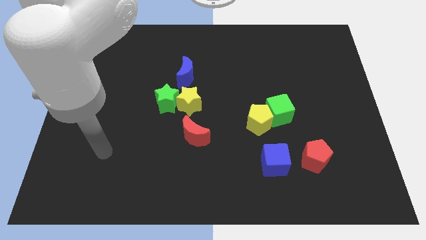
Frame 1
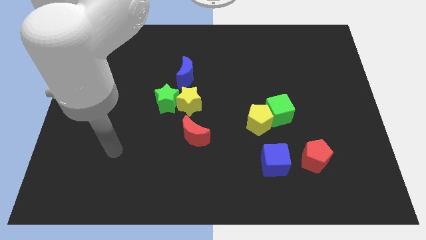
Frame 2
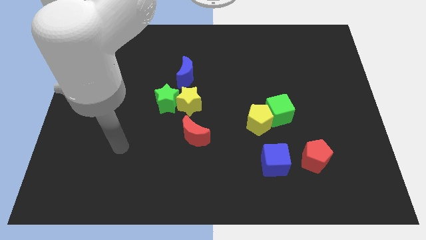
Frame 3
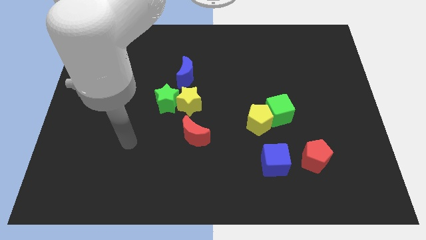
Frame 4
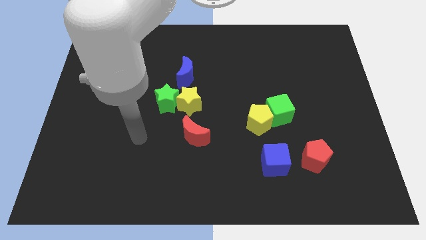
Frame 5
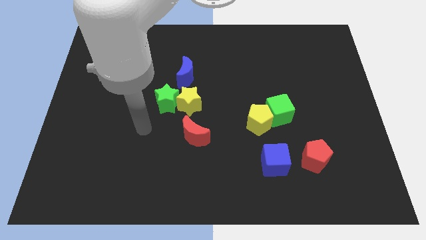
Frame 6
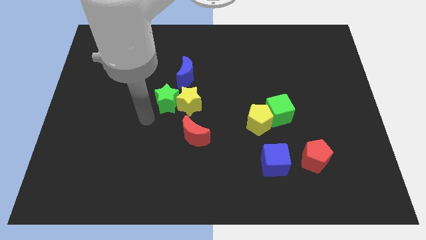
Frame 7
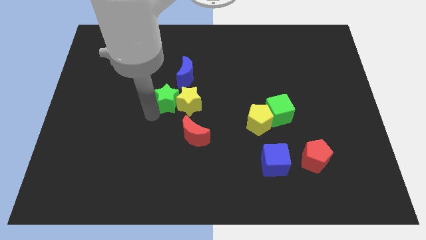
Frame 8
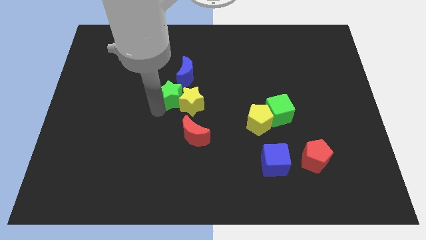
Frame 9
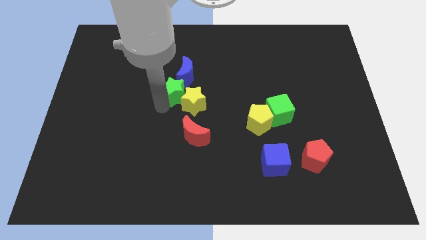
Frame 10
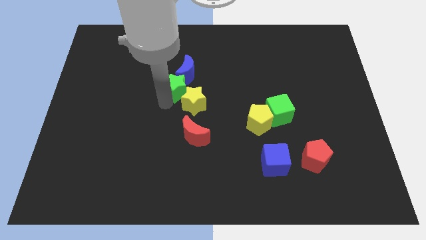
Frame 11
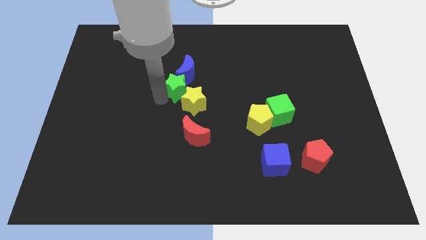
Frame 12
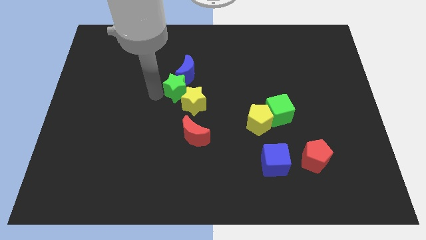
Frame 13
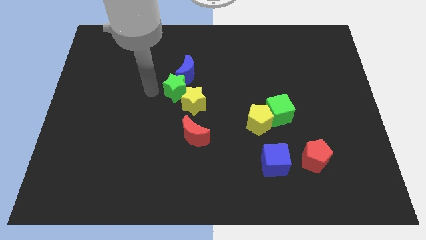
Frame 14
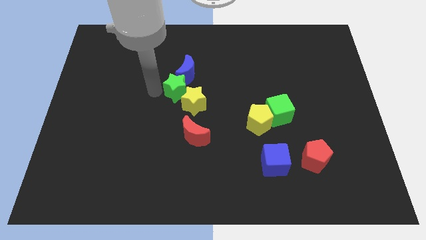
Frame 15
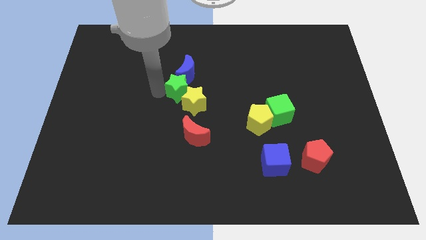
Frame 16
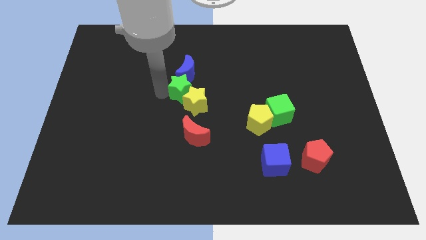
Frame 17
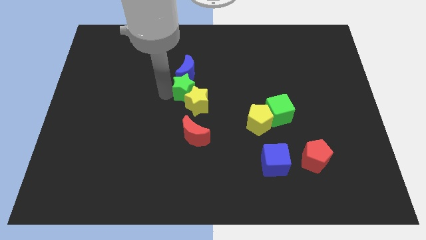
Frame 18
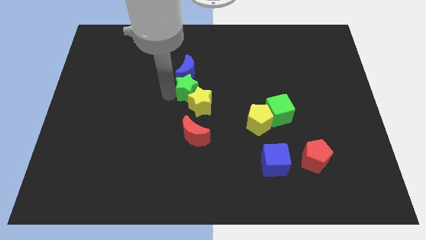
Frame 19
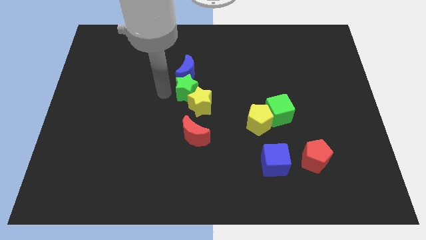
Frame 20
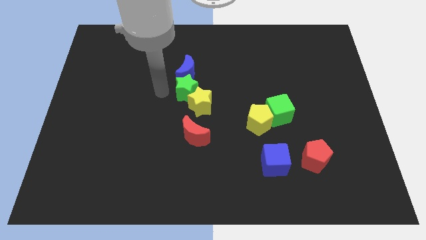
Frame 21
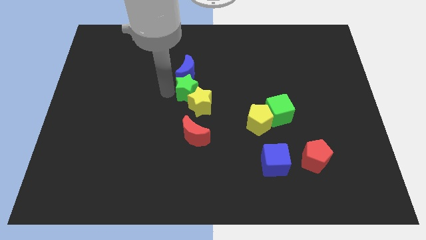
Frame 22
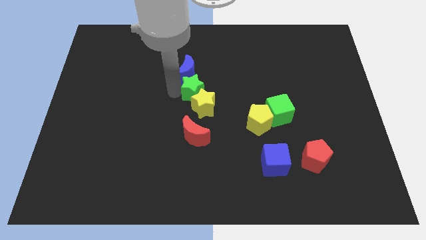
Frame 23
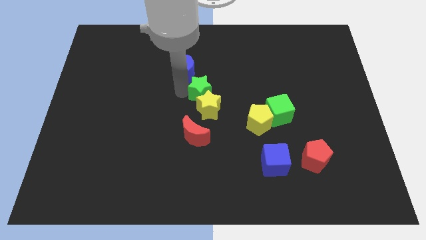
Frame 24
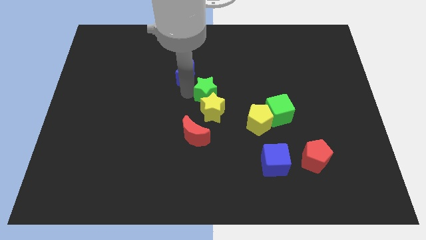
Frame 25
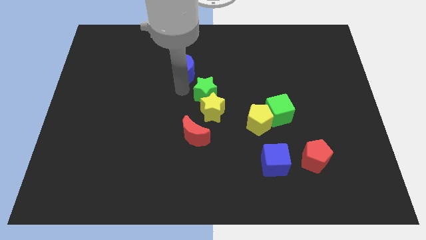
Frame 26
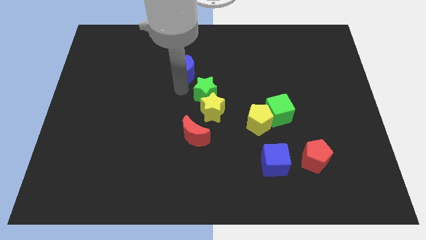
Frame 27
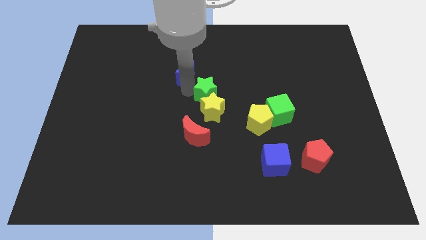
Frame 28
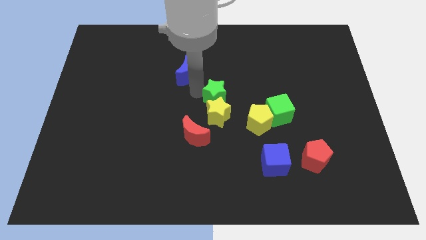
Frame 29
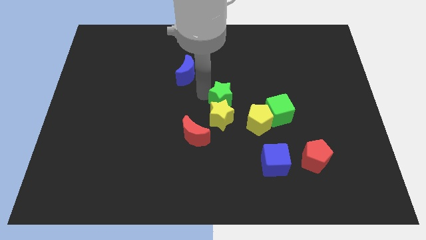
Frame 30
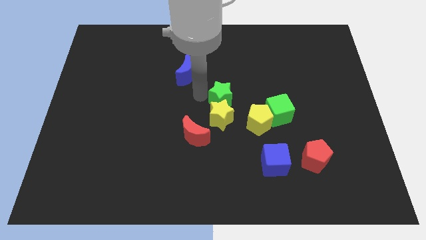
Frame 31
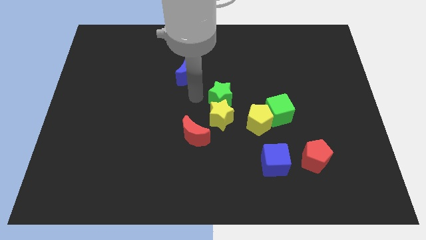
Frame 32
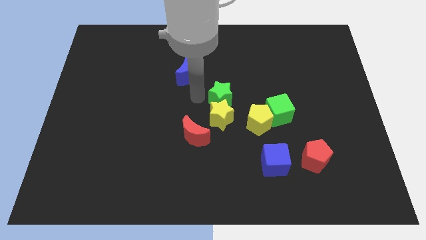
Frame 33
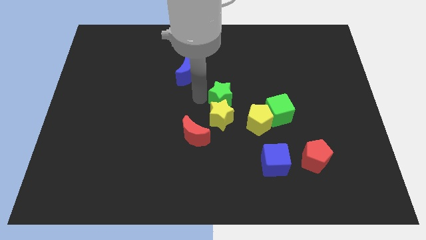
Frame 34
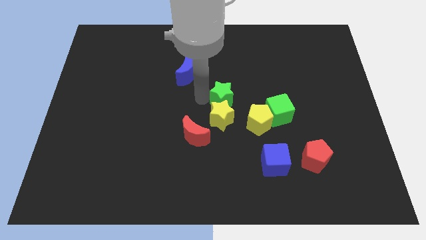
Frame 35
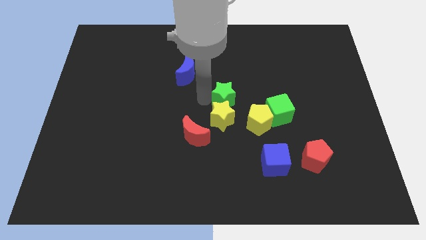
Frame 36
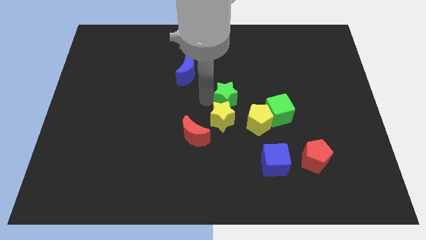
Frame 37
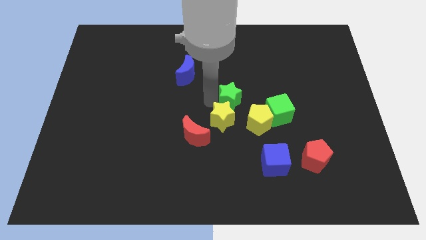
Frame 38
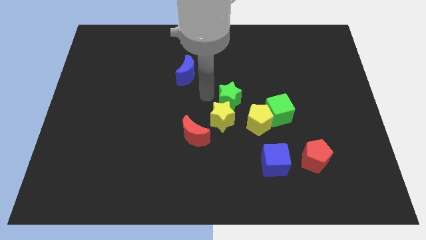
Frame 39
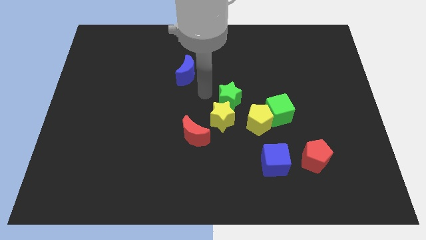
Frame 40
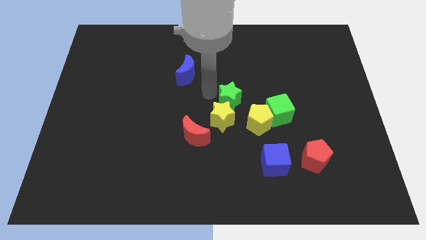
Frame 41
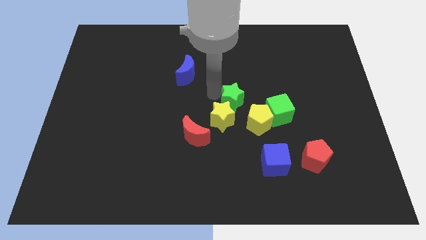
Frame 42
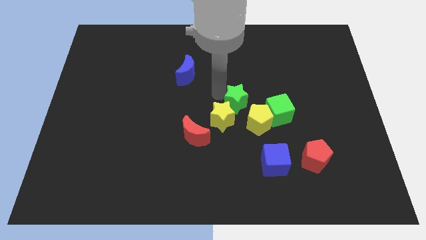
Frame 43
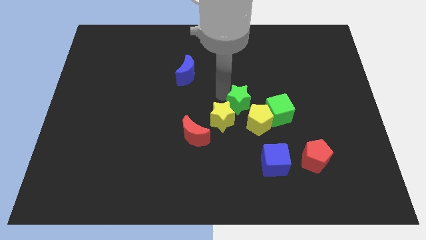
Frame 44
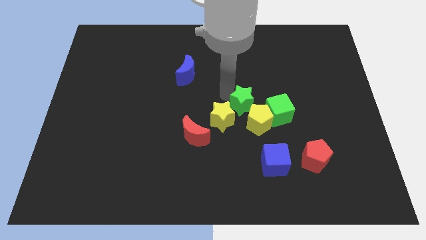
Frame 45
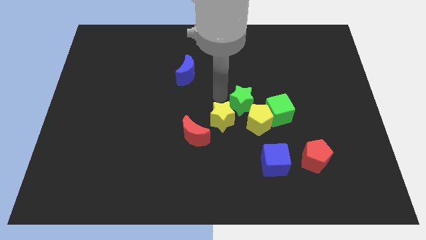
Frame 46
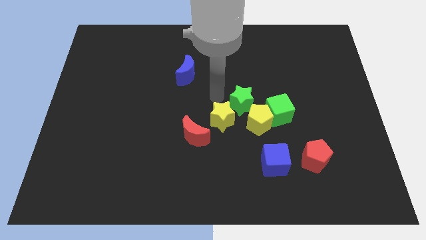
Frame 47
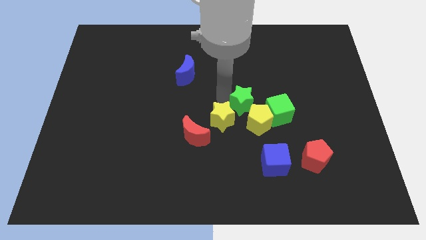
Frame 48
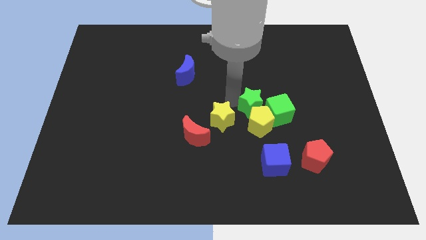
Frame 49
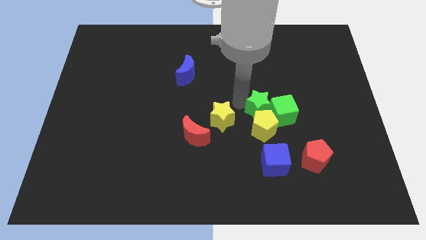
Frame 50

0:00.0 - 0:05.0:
slide the green star next to the green cube

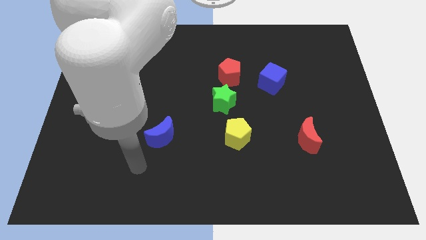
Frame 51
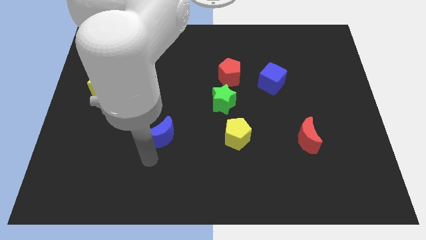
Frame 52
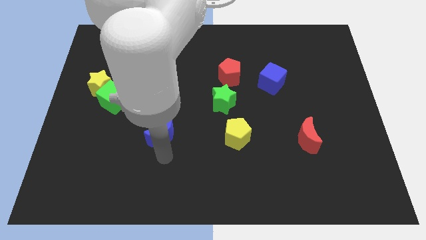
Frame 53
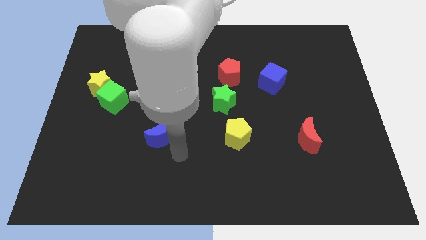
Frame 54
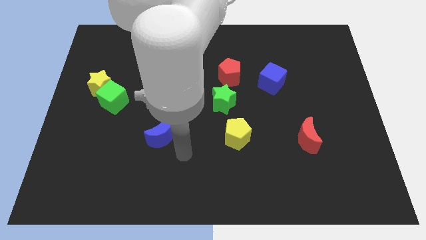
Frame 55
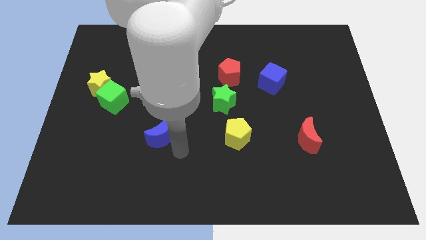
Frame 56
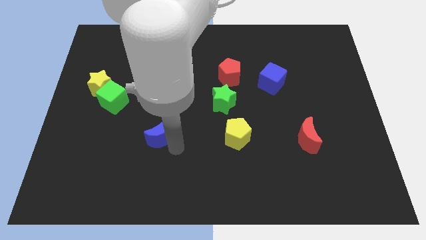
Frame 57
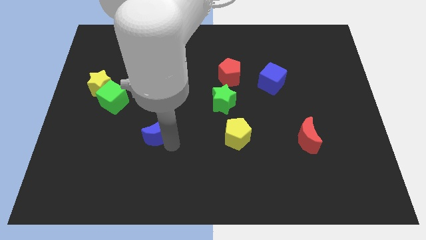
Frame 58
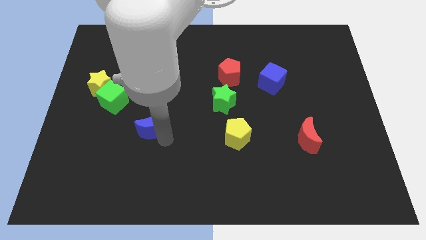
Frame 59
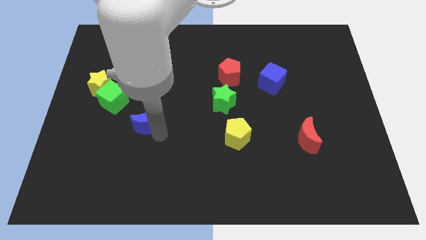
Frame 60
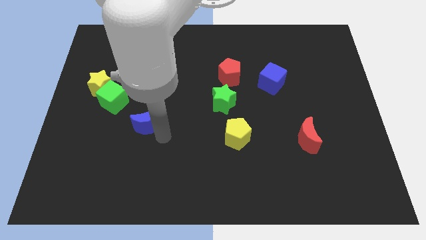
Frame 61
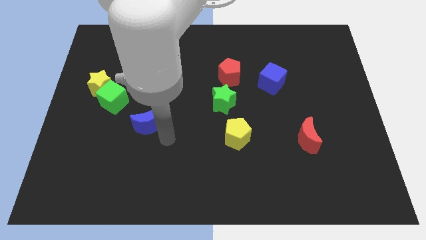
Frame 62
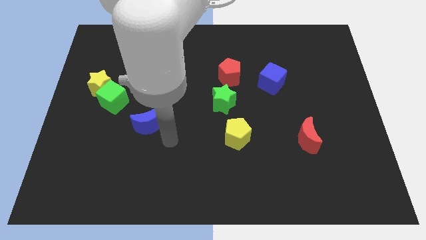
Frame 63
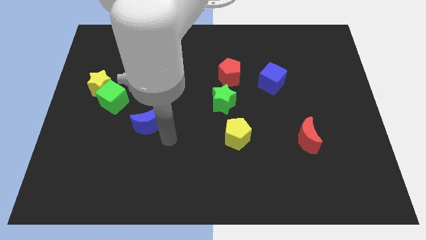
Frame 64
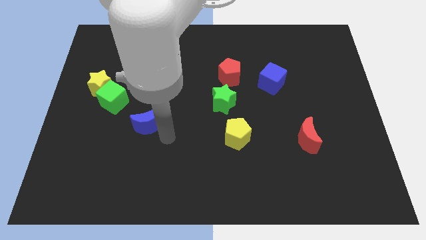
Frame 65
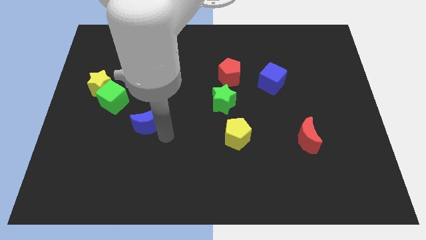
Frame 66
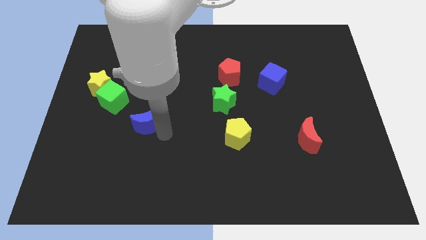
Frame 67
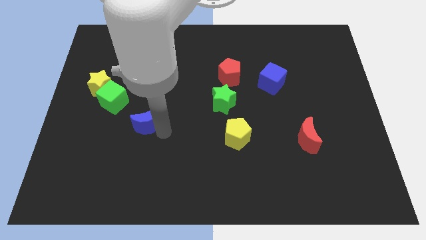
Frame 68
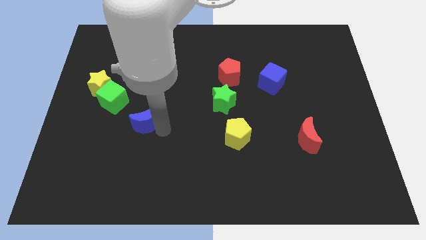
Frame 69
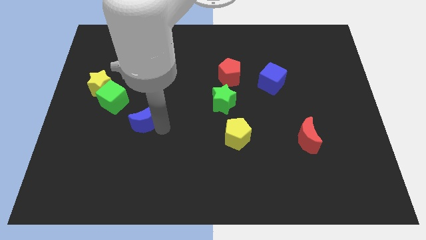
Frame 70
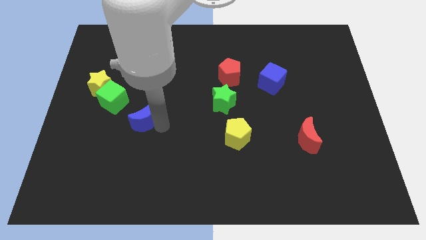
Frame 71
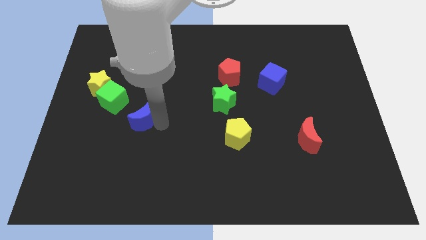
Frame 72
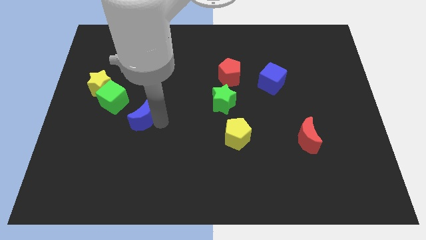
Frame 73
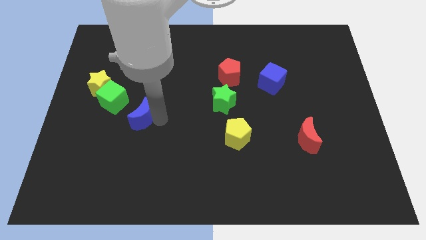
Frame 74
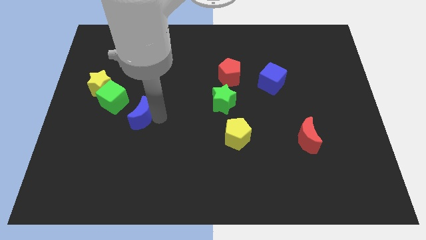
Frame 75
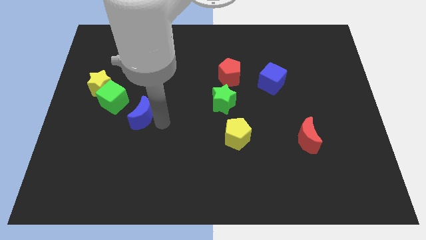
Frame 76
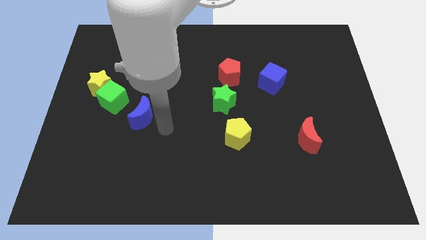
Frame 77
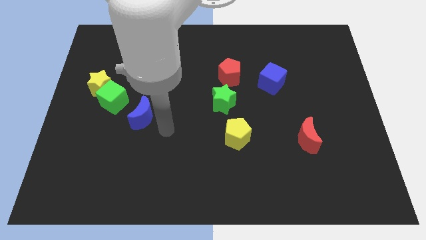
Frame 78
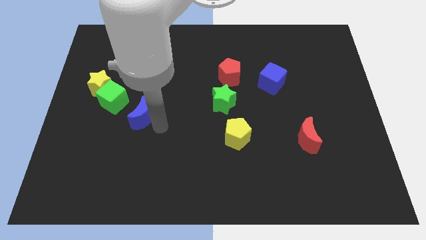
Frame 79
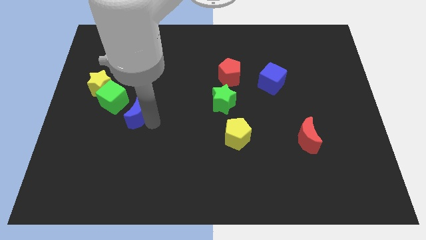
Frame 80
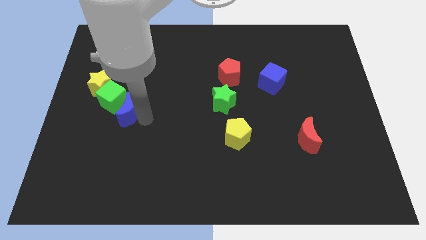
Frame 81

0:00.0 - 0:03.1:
slide the blue moon next to the green cube
